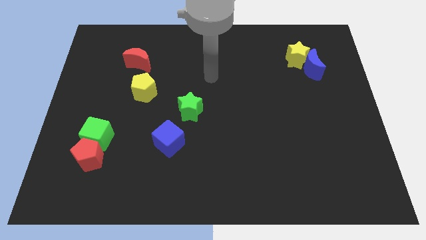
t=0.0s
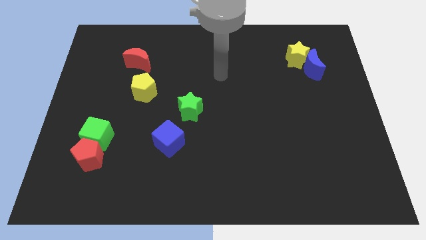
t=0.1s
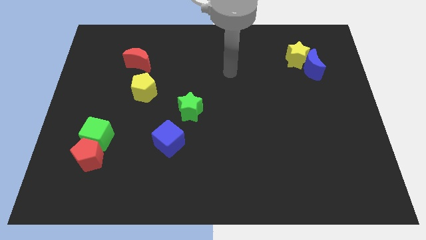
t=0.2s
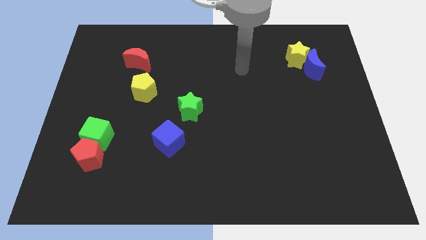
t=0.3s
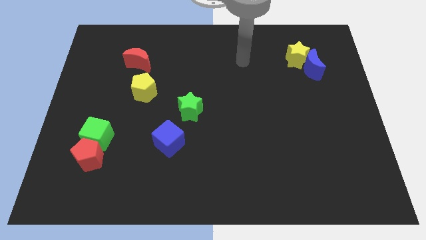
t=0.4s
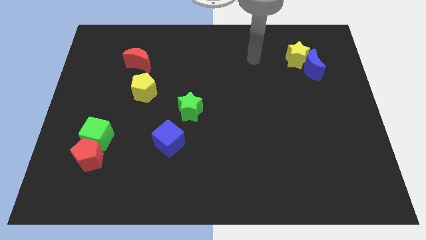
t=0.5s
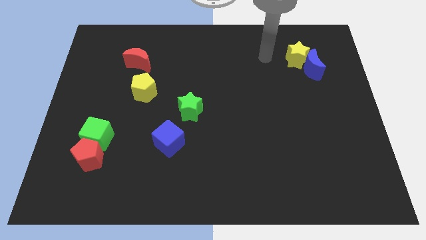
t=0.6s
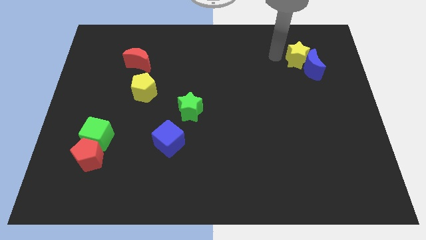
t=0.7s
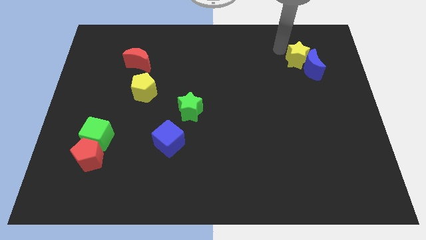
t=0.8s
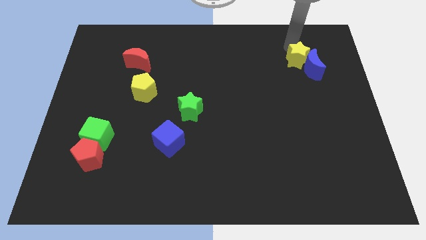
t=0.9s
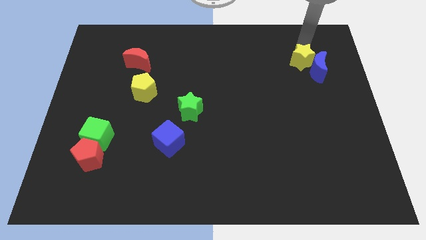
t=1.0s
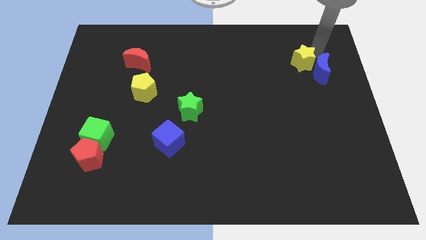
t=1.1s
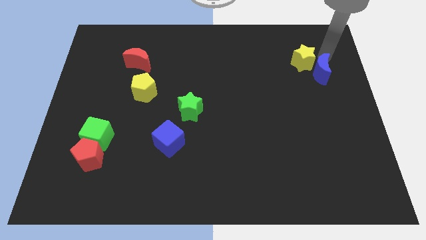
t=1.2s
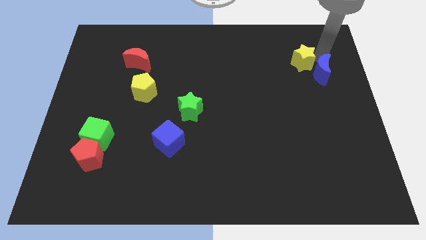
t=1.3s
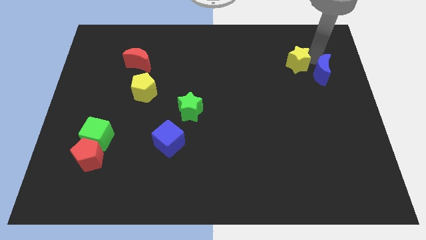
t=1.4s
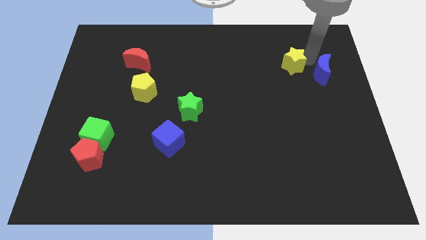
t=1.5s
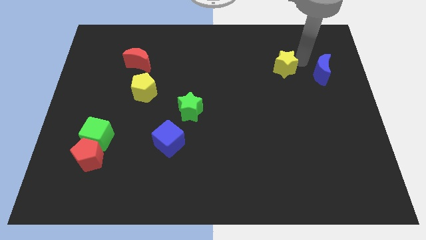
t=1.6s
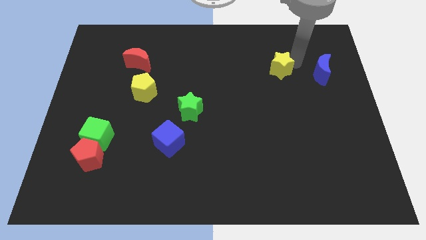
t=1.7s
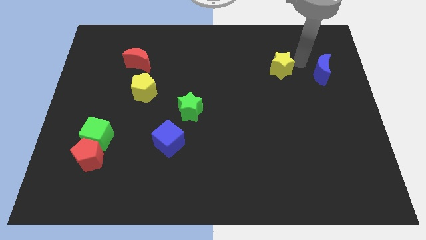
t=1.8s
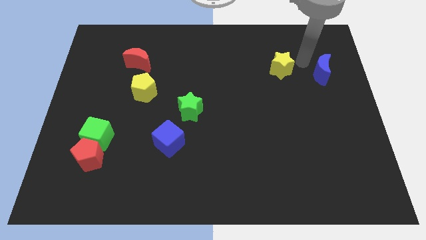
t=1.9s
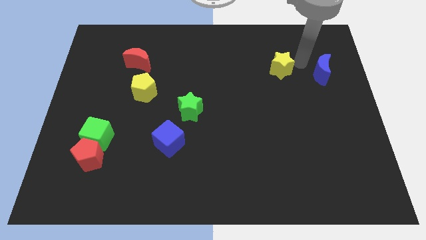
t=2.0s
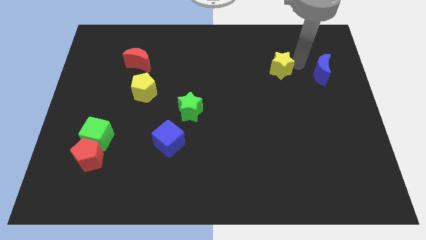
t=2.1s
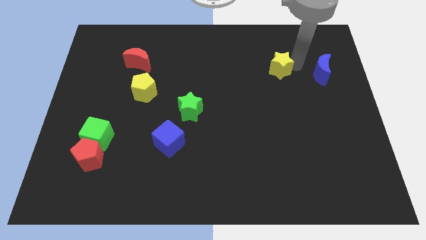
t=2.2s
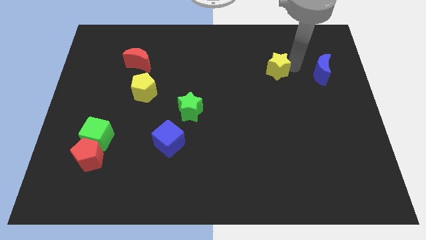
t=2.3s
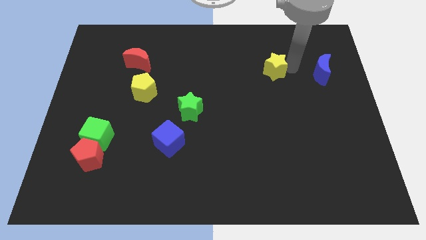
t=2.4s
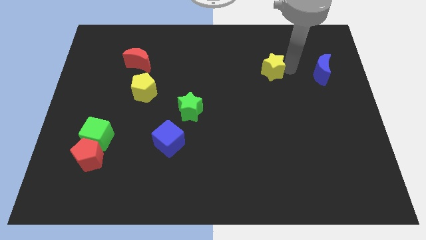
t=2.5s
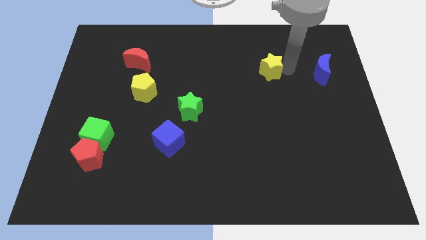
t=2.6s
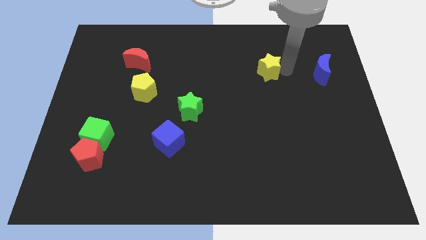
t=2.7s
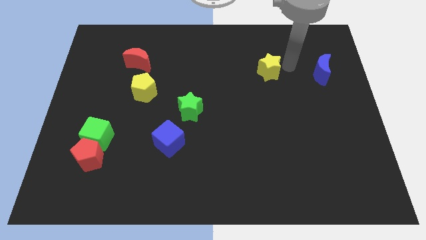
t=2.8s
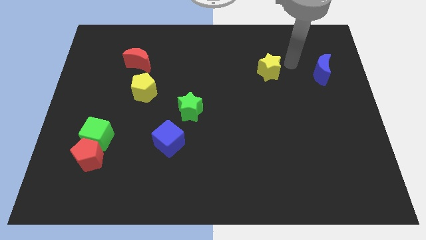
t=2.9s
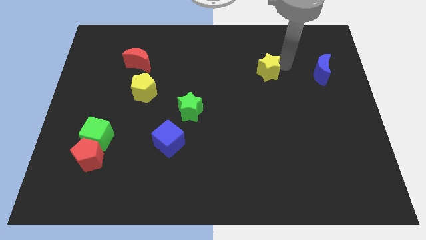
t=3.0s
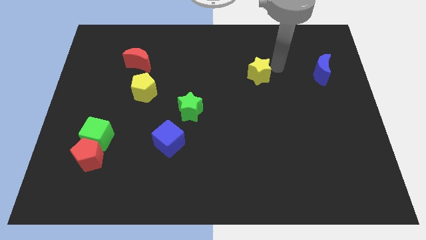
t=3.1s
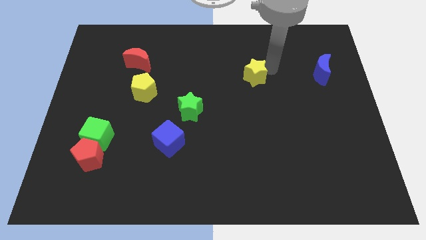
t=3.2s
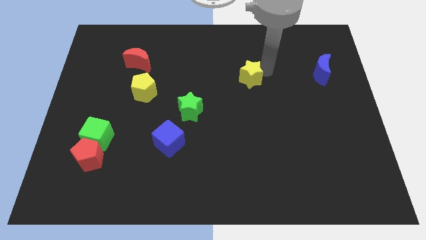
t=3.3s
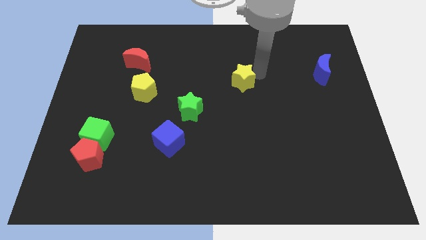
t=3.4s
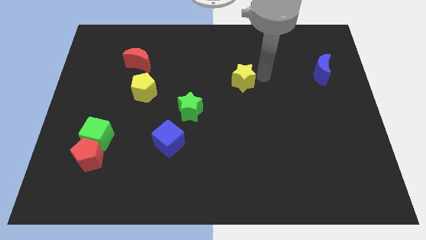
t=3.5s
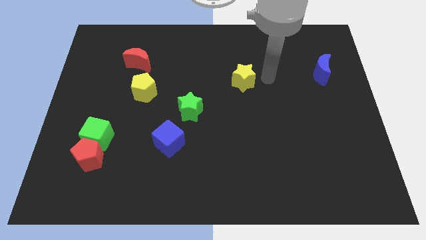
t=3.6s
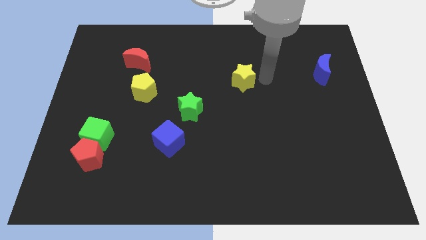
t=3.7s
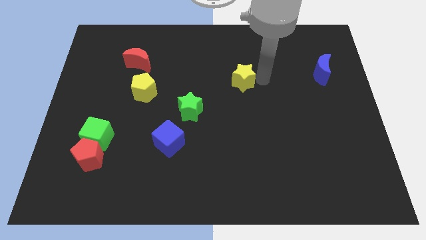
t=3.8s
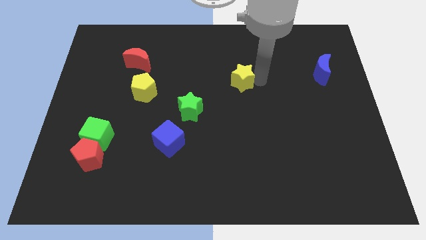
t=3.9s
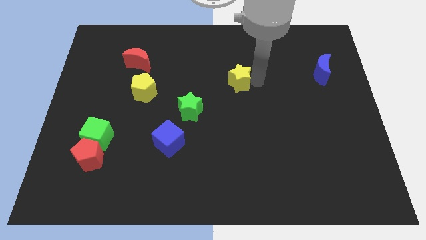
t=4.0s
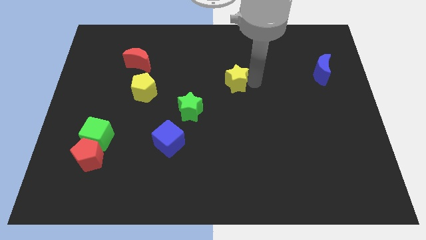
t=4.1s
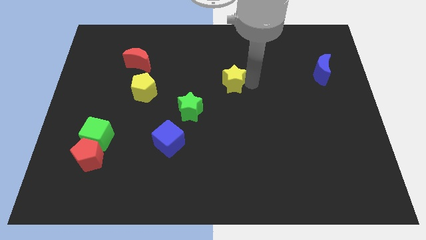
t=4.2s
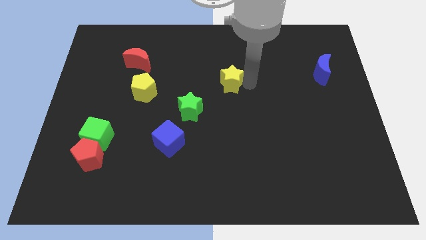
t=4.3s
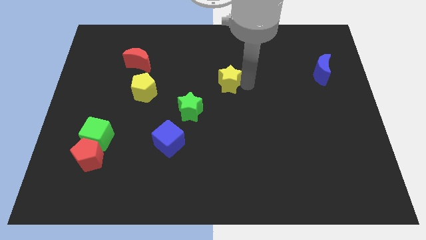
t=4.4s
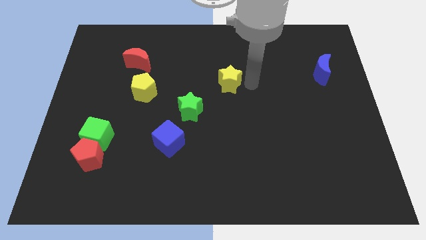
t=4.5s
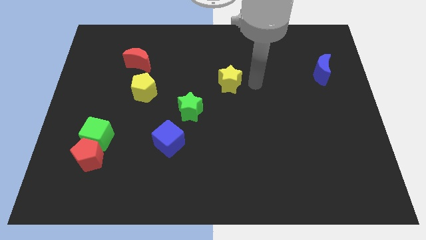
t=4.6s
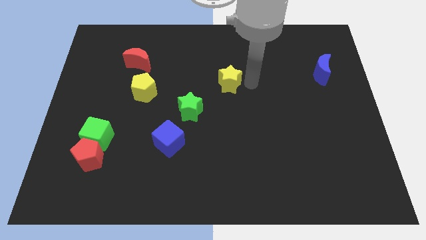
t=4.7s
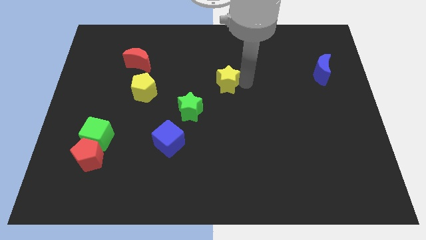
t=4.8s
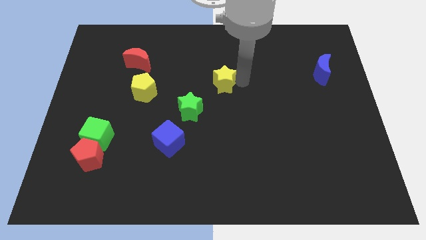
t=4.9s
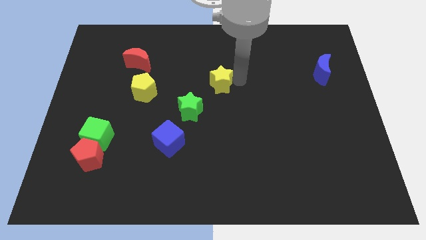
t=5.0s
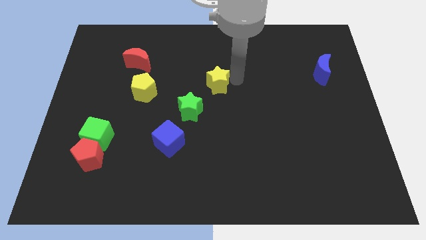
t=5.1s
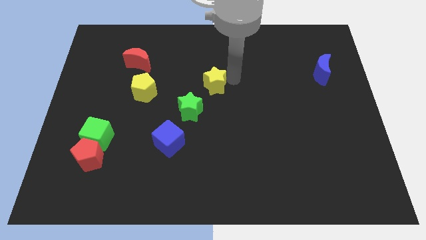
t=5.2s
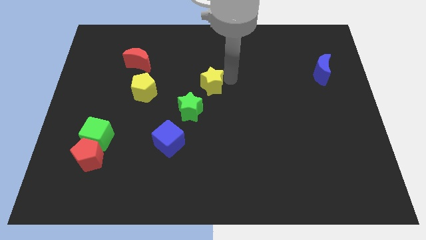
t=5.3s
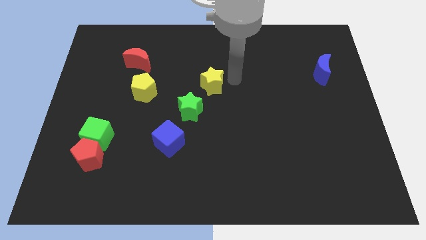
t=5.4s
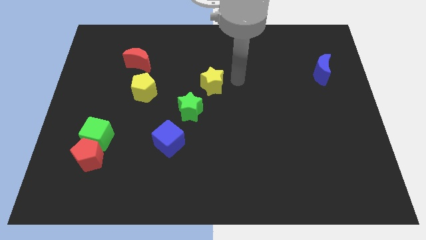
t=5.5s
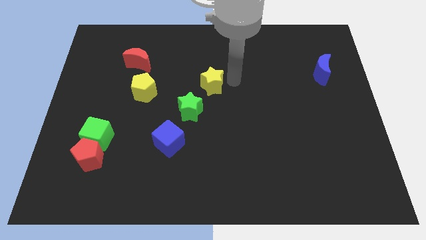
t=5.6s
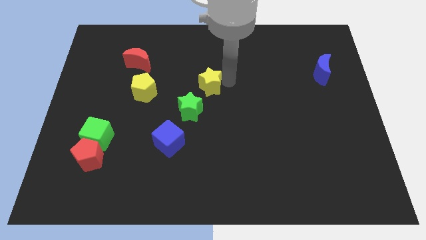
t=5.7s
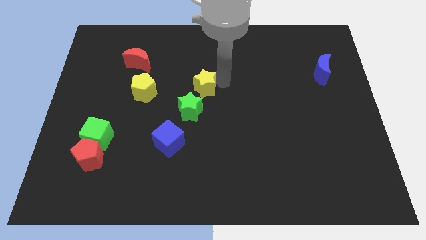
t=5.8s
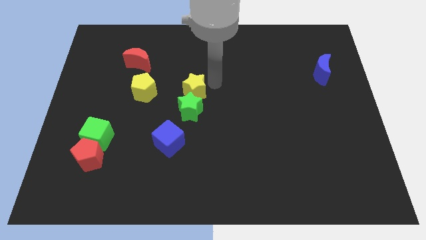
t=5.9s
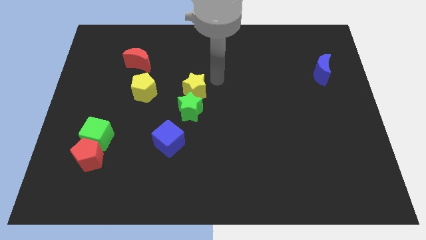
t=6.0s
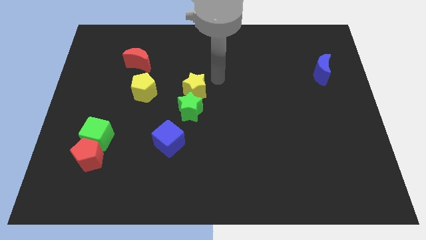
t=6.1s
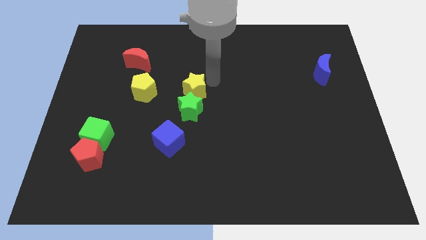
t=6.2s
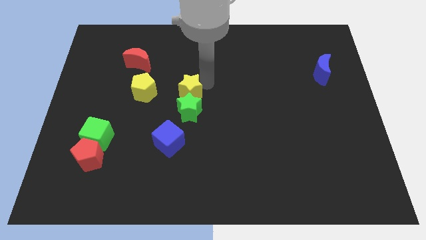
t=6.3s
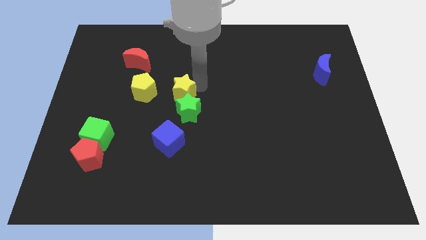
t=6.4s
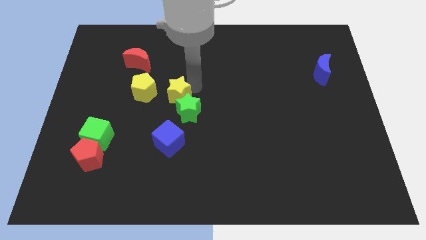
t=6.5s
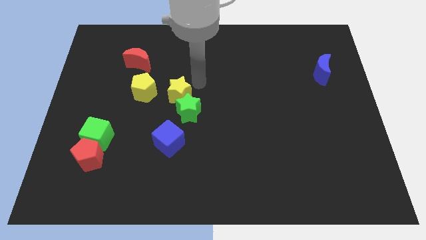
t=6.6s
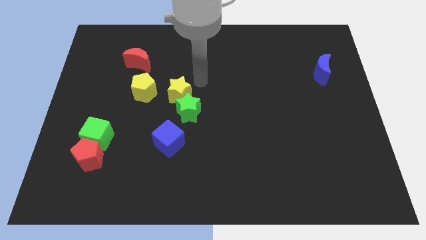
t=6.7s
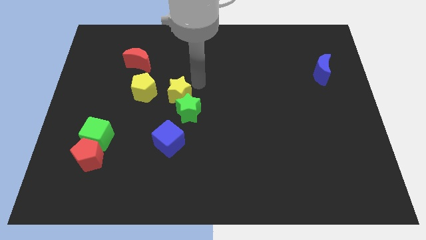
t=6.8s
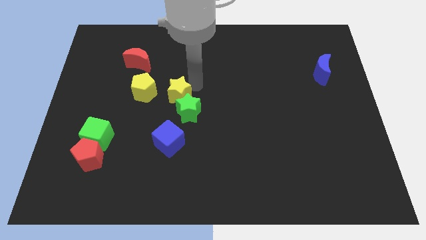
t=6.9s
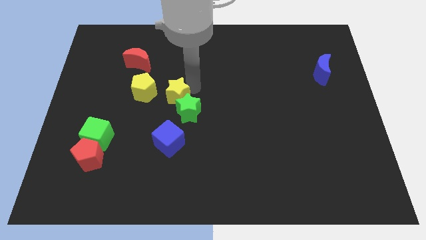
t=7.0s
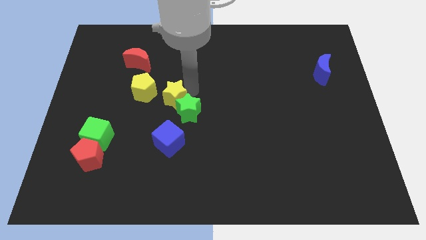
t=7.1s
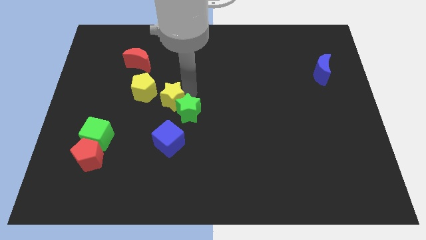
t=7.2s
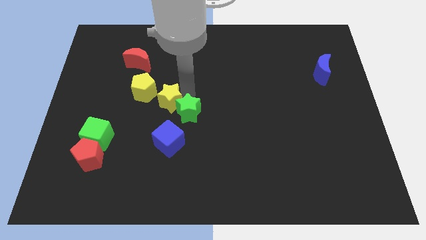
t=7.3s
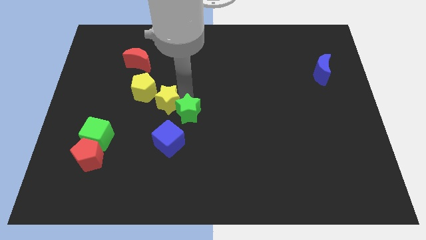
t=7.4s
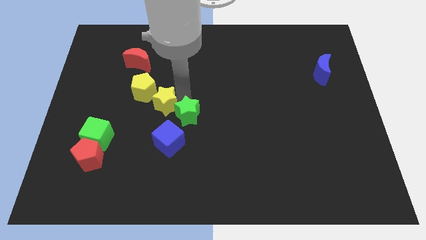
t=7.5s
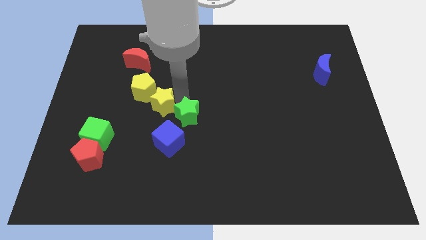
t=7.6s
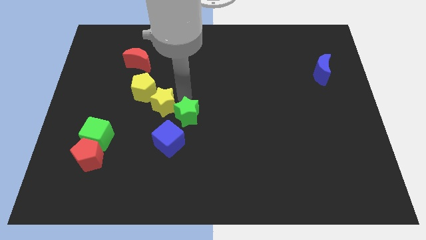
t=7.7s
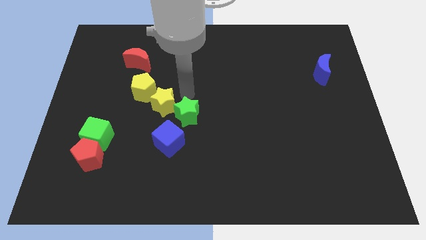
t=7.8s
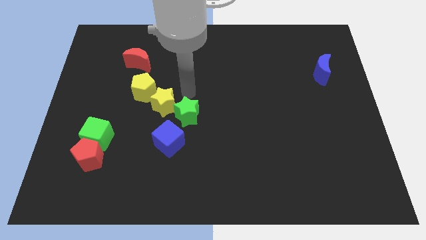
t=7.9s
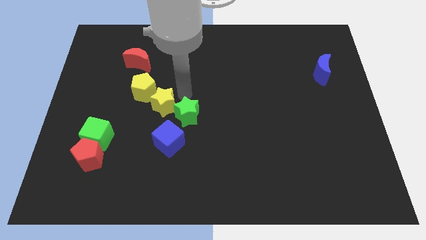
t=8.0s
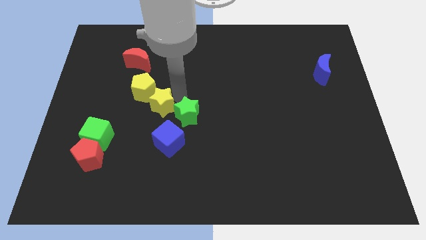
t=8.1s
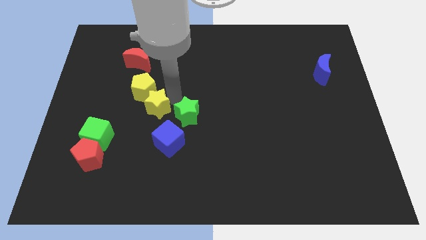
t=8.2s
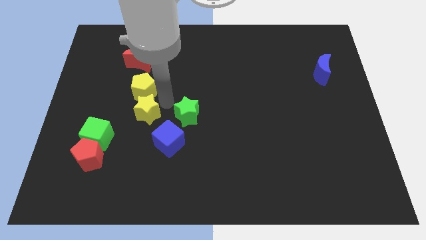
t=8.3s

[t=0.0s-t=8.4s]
put the yellow star diagonally up and to the right of the green cube
